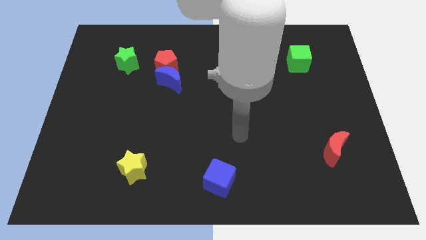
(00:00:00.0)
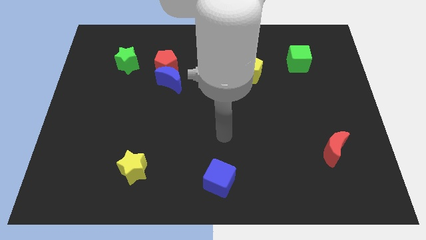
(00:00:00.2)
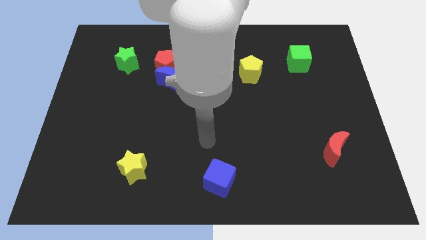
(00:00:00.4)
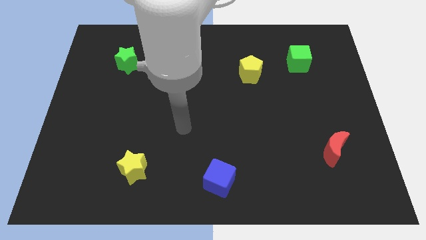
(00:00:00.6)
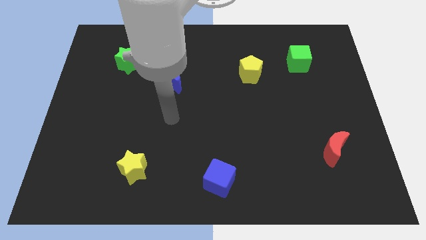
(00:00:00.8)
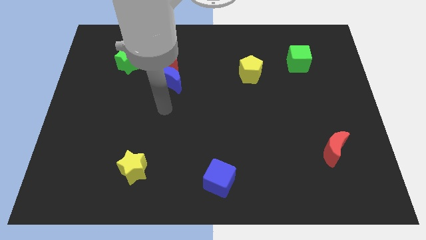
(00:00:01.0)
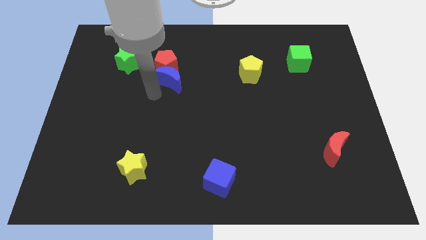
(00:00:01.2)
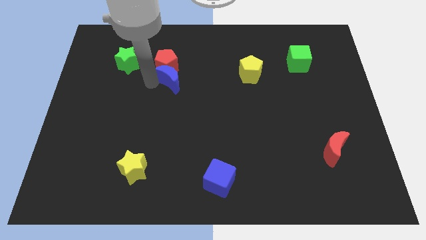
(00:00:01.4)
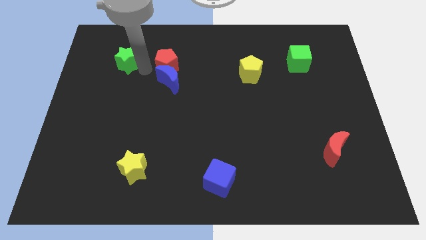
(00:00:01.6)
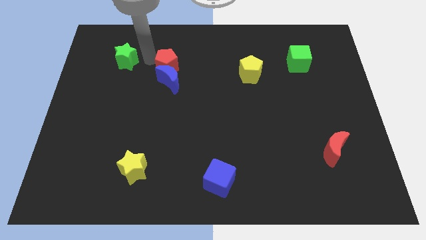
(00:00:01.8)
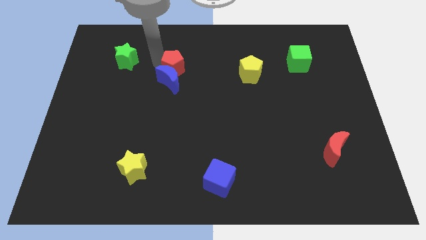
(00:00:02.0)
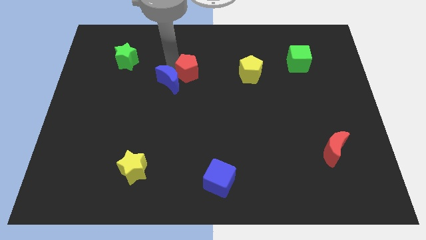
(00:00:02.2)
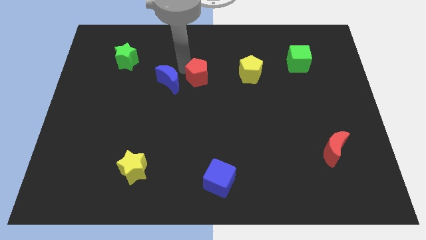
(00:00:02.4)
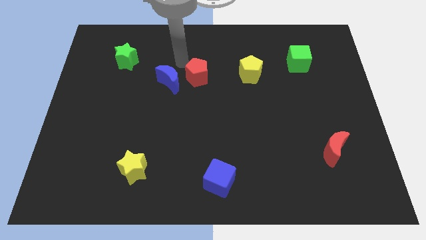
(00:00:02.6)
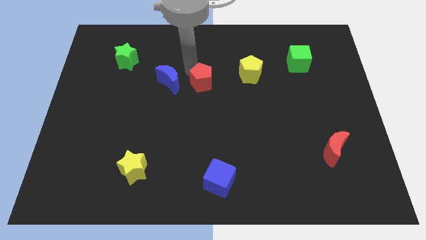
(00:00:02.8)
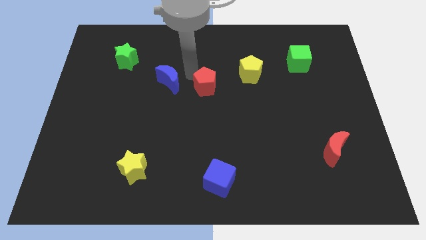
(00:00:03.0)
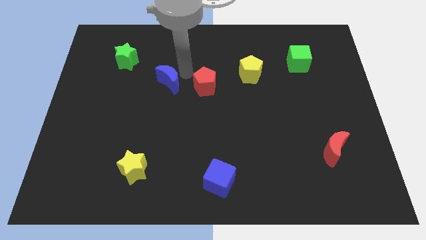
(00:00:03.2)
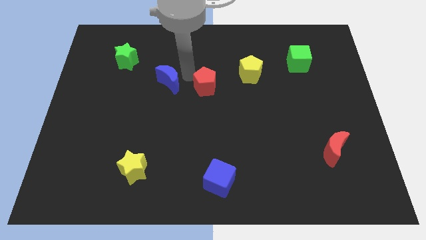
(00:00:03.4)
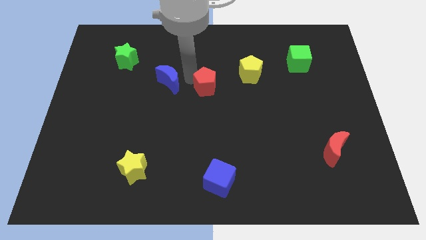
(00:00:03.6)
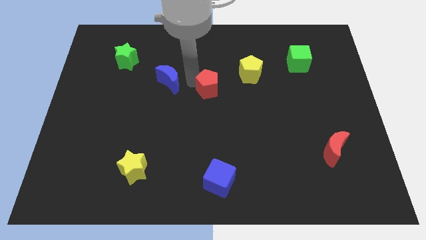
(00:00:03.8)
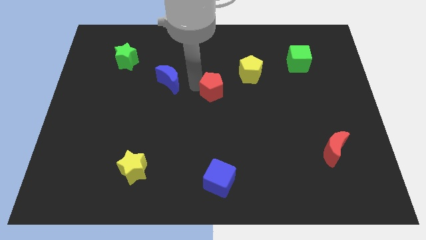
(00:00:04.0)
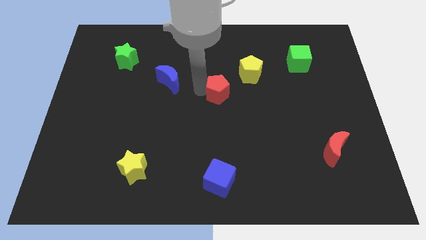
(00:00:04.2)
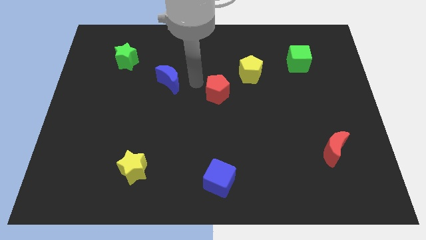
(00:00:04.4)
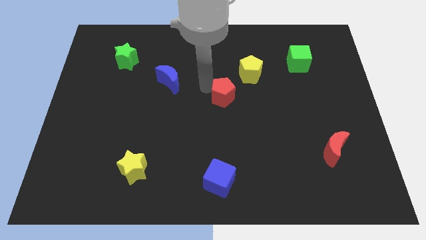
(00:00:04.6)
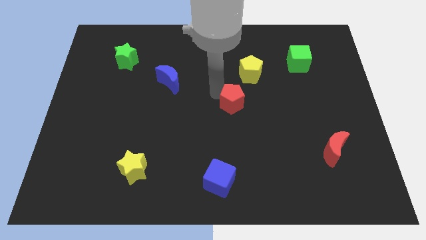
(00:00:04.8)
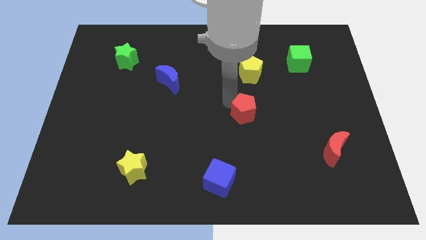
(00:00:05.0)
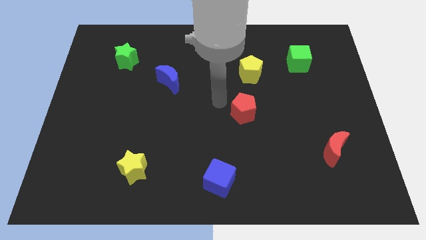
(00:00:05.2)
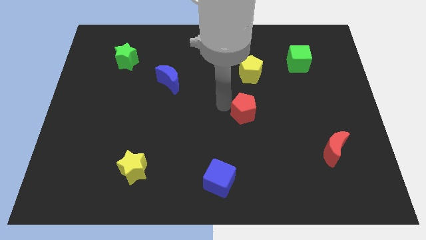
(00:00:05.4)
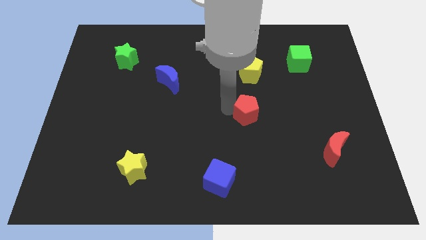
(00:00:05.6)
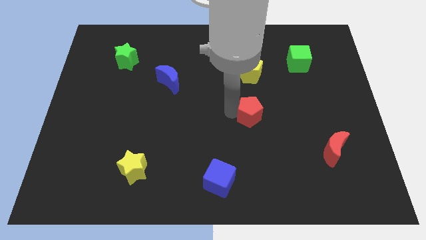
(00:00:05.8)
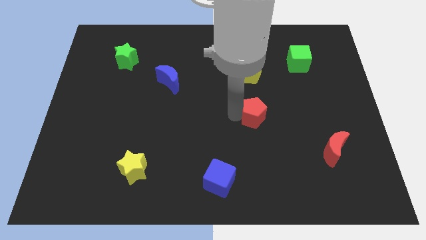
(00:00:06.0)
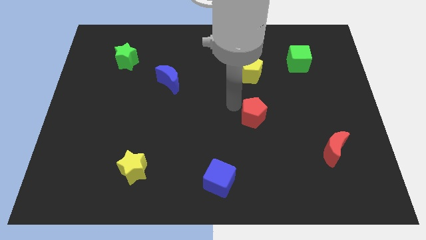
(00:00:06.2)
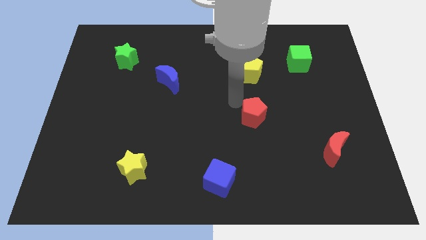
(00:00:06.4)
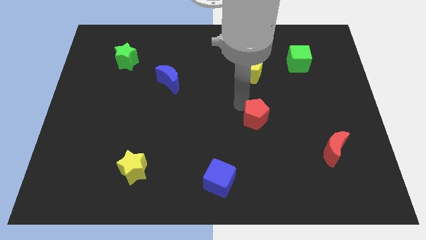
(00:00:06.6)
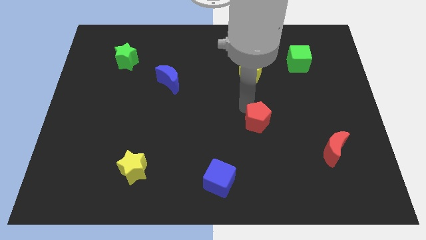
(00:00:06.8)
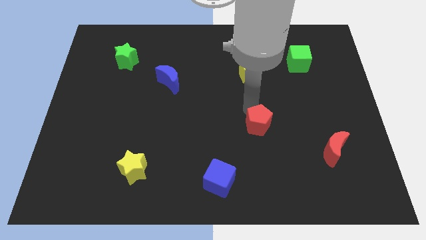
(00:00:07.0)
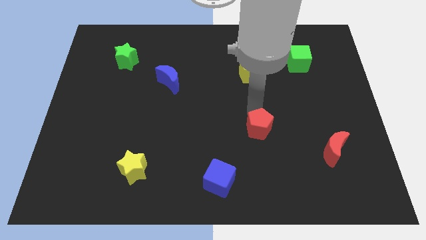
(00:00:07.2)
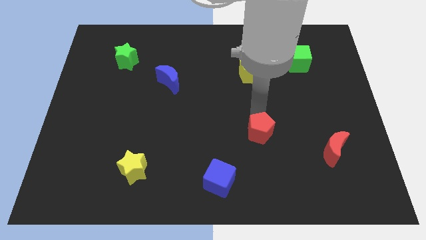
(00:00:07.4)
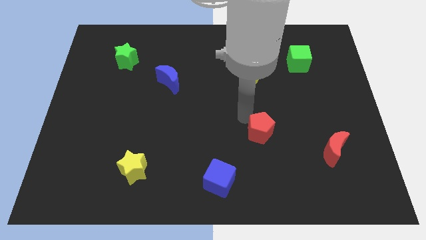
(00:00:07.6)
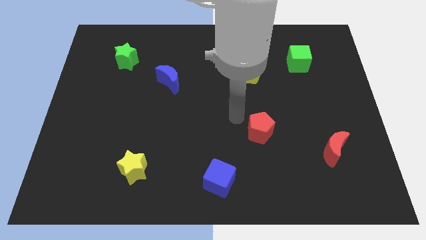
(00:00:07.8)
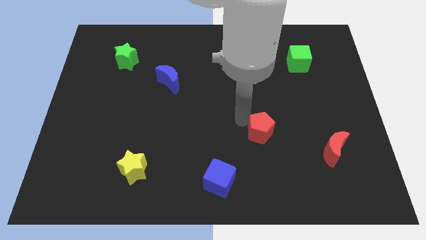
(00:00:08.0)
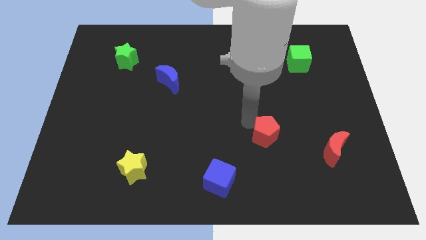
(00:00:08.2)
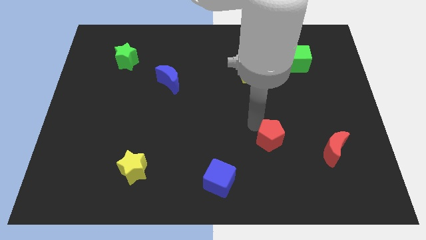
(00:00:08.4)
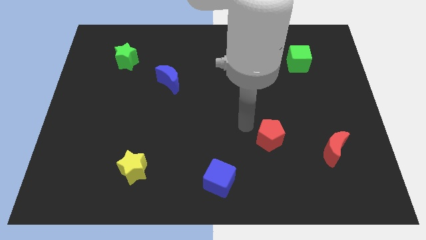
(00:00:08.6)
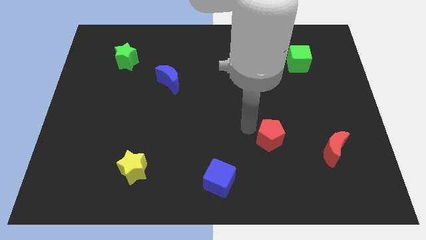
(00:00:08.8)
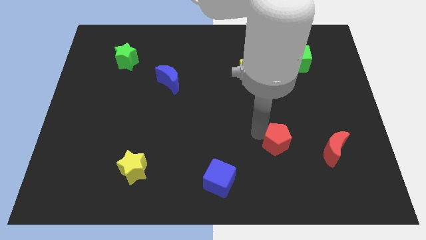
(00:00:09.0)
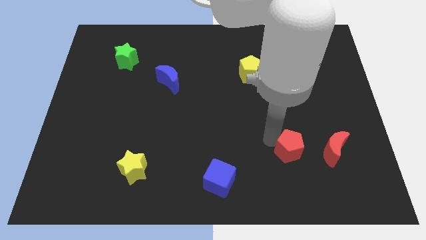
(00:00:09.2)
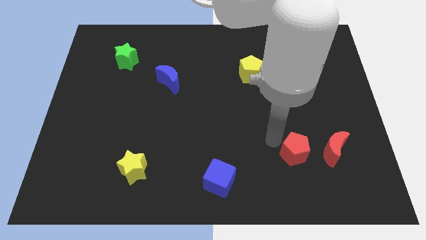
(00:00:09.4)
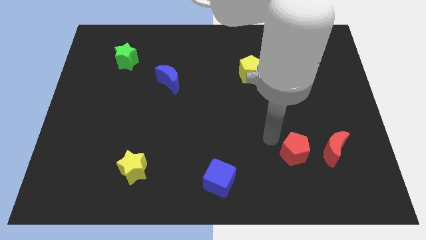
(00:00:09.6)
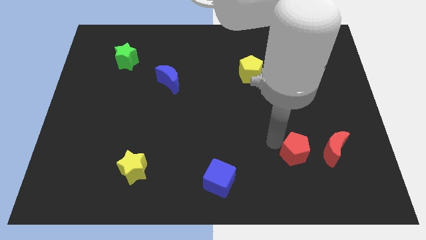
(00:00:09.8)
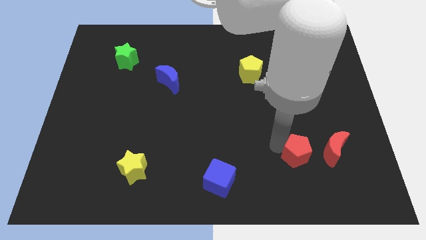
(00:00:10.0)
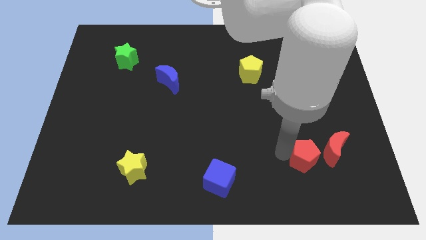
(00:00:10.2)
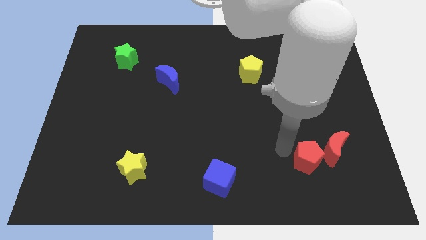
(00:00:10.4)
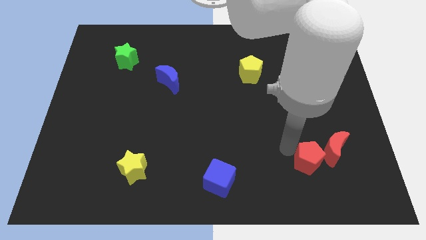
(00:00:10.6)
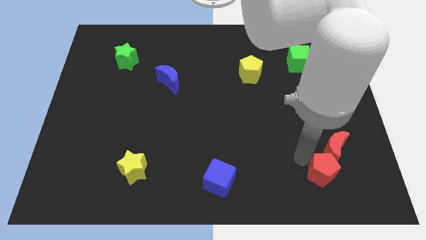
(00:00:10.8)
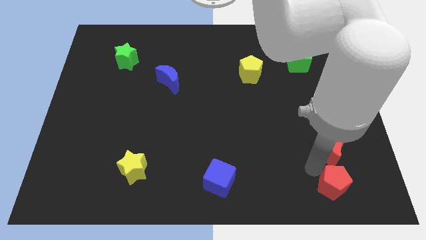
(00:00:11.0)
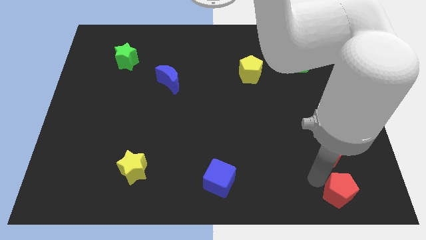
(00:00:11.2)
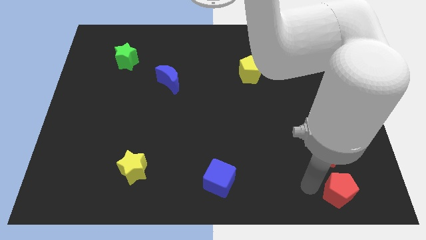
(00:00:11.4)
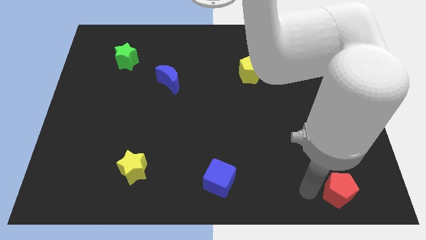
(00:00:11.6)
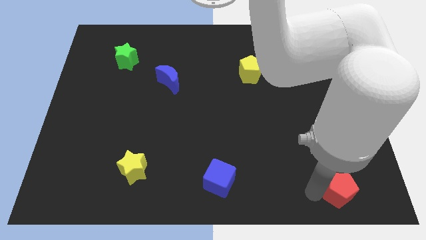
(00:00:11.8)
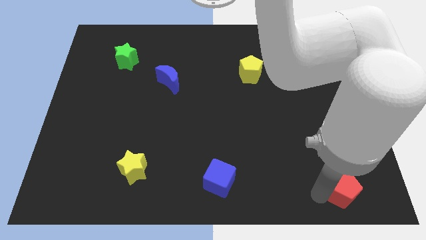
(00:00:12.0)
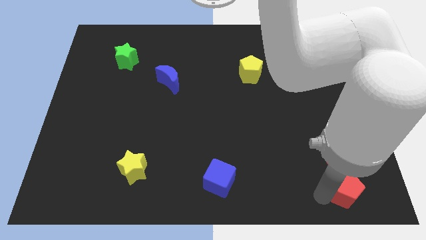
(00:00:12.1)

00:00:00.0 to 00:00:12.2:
move the red pentagon to the bottom right
